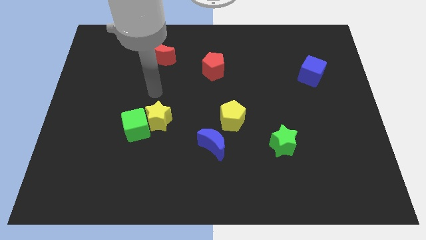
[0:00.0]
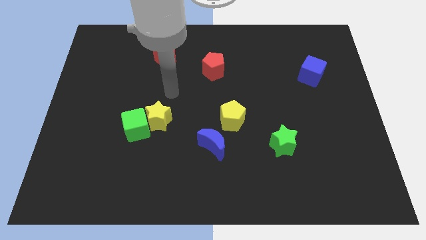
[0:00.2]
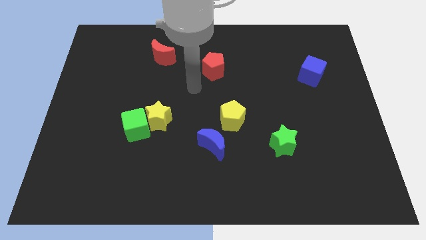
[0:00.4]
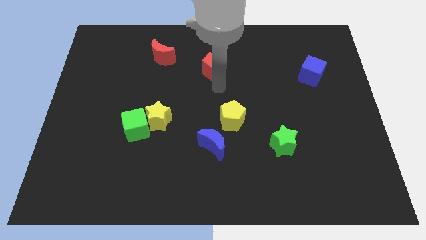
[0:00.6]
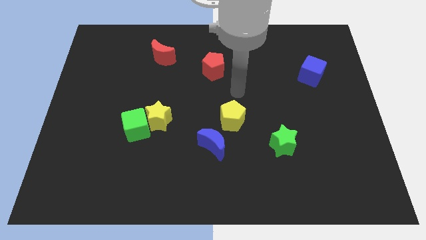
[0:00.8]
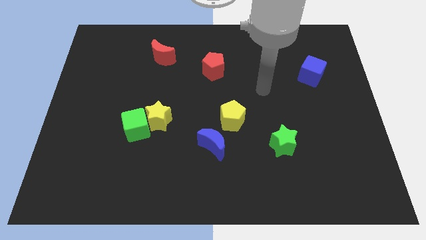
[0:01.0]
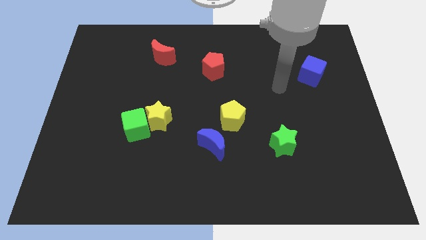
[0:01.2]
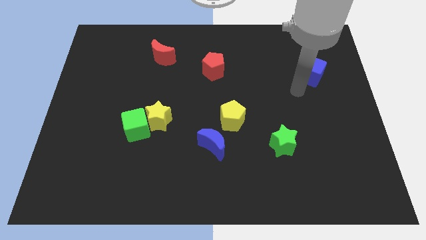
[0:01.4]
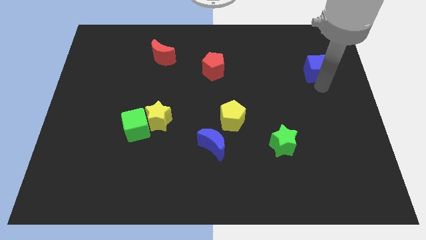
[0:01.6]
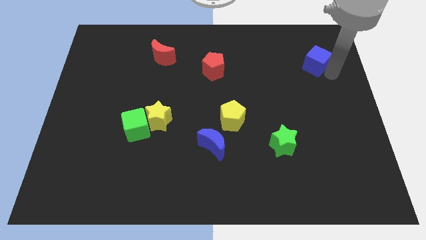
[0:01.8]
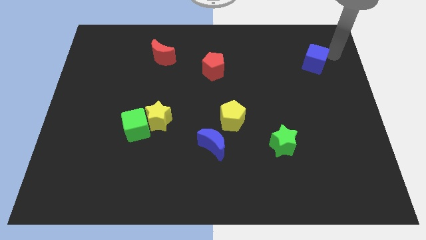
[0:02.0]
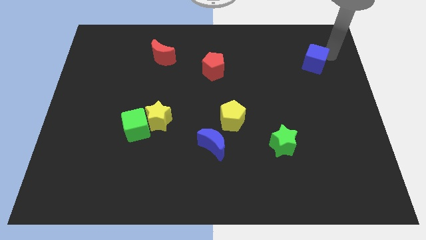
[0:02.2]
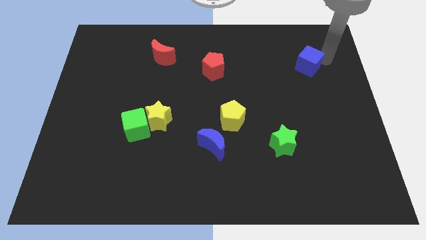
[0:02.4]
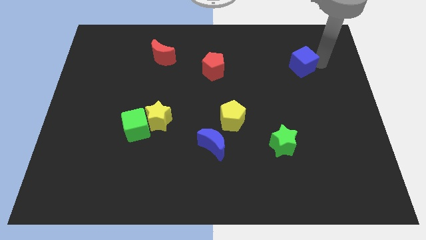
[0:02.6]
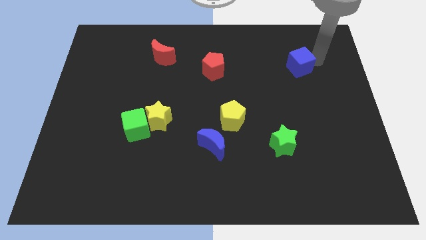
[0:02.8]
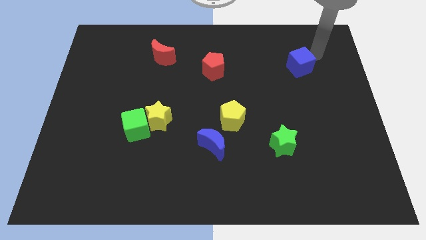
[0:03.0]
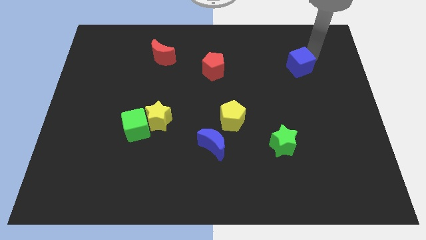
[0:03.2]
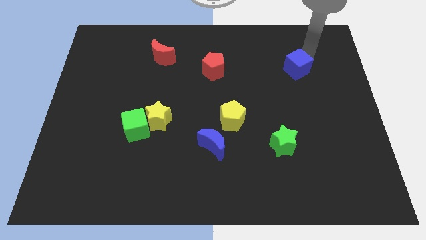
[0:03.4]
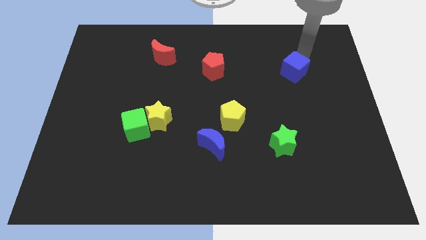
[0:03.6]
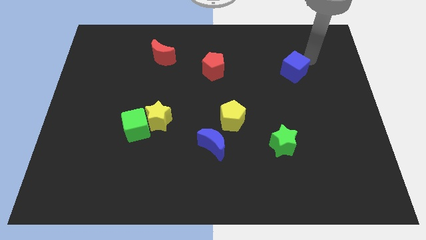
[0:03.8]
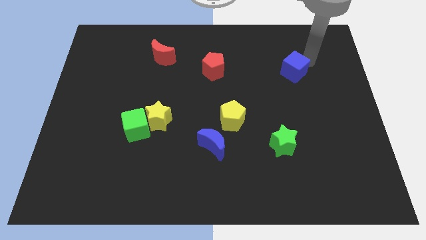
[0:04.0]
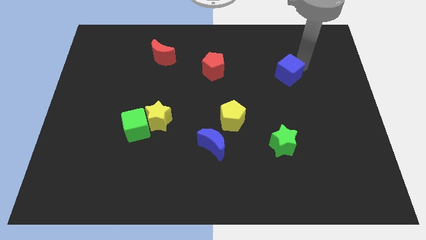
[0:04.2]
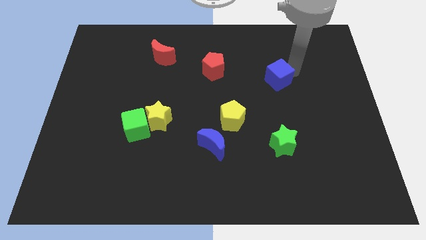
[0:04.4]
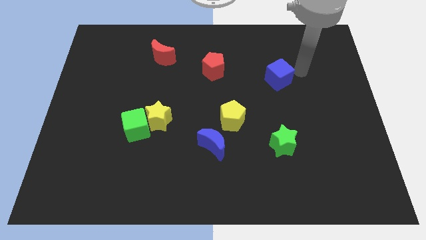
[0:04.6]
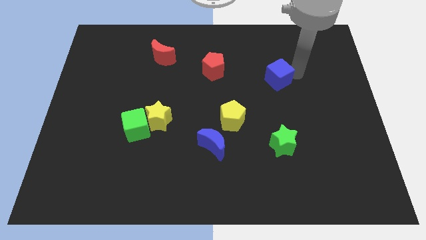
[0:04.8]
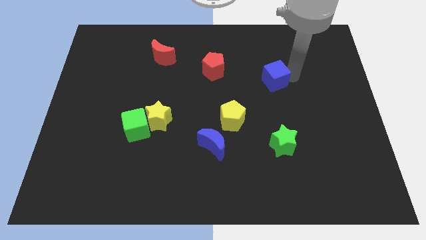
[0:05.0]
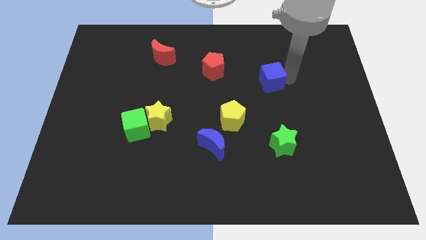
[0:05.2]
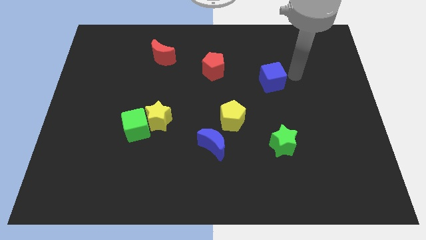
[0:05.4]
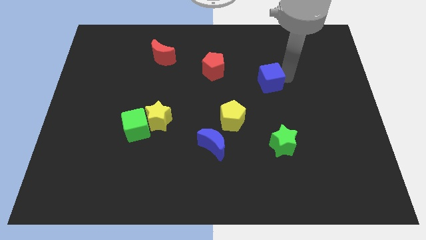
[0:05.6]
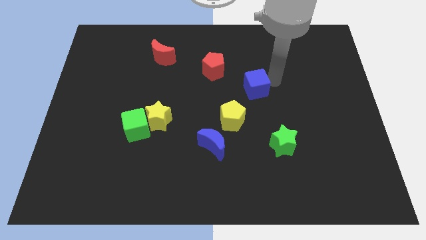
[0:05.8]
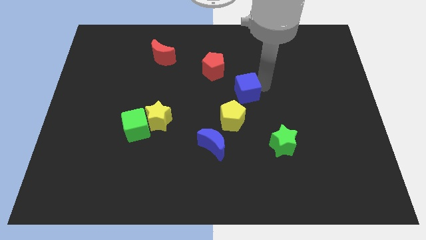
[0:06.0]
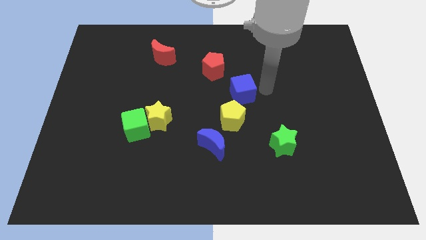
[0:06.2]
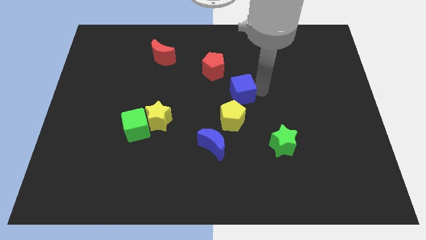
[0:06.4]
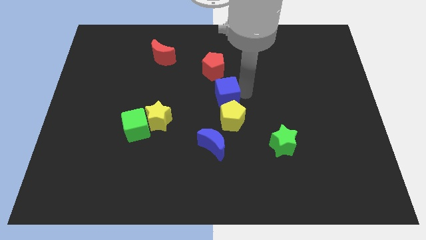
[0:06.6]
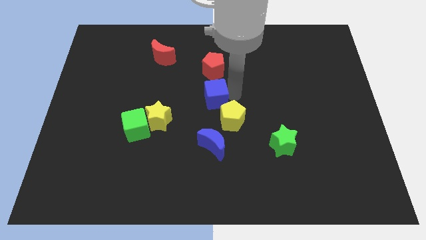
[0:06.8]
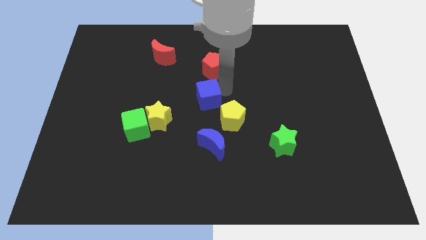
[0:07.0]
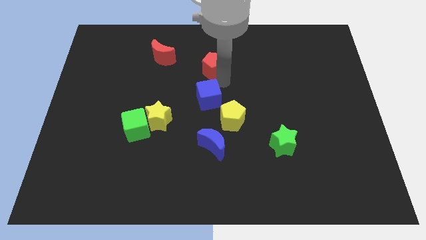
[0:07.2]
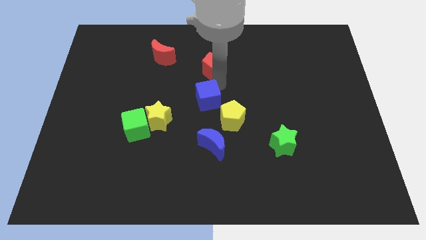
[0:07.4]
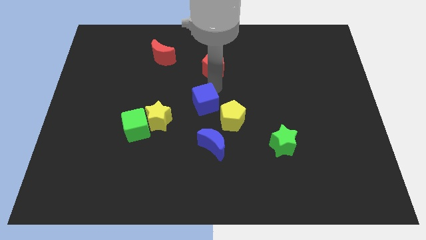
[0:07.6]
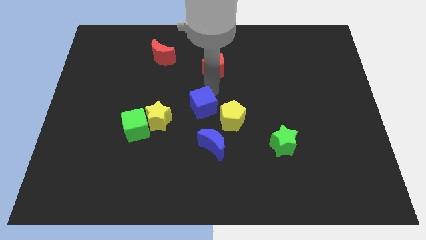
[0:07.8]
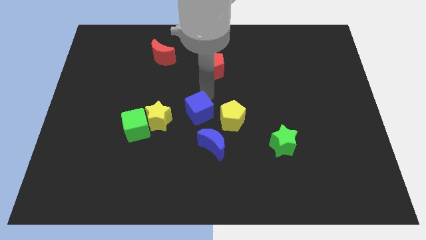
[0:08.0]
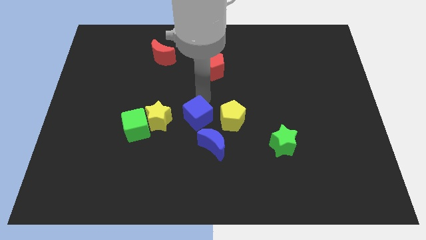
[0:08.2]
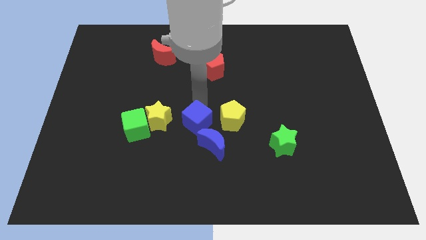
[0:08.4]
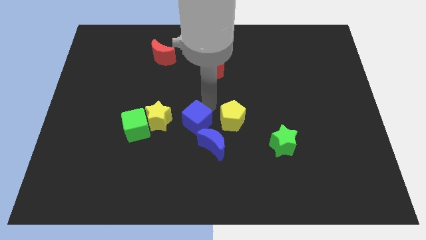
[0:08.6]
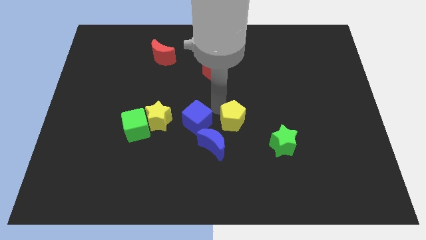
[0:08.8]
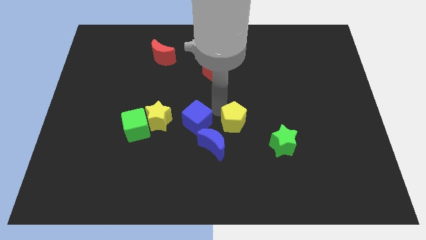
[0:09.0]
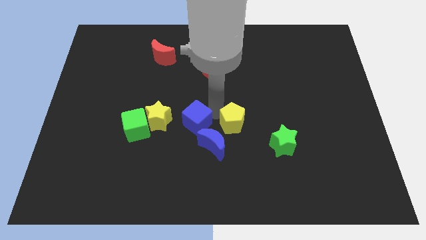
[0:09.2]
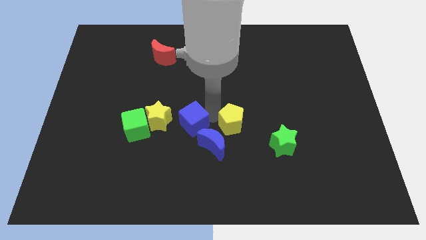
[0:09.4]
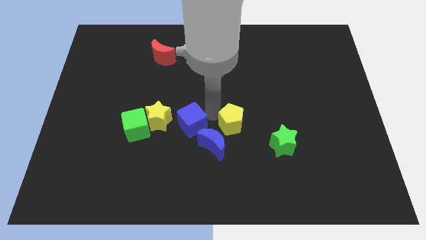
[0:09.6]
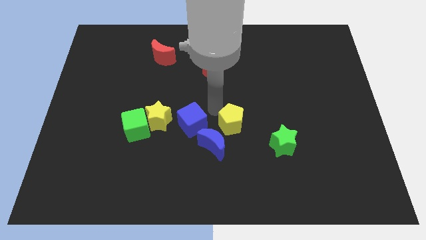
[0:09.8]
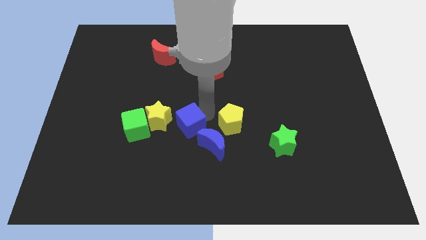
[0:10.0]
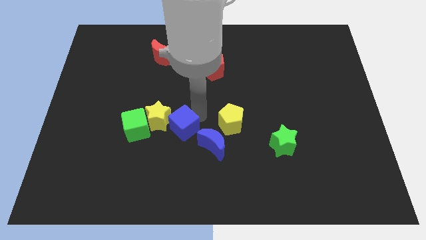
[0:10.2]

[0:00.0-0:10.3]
push the blue cube to the left side of the blue moon

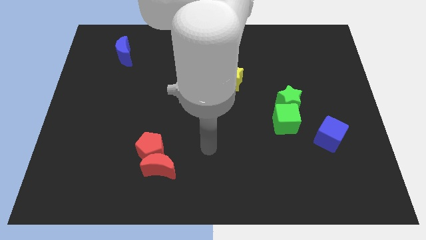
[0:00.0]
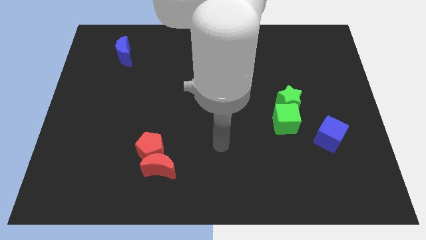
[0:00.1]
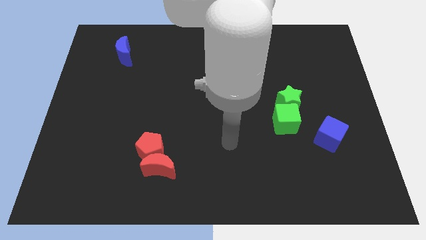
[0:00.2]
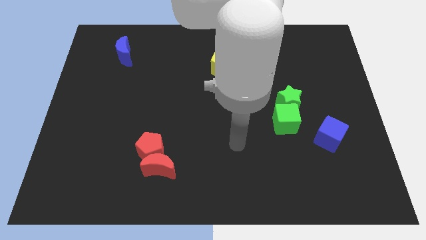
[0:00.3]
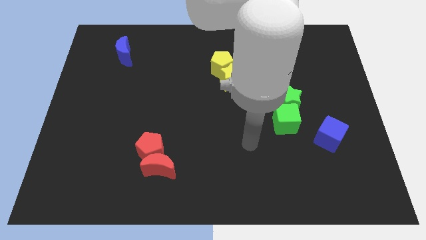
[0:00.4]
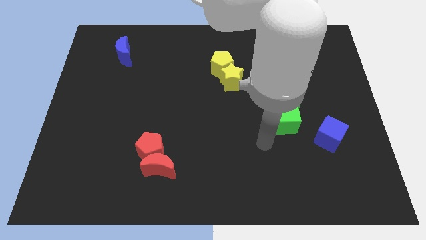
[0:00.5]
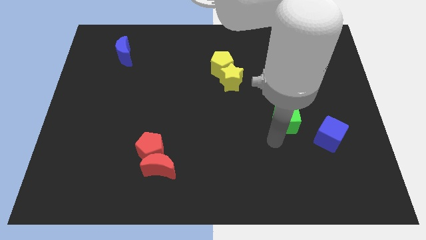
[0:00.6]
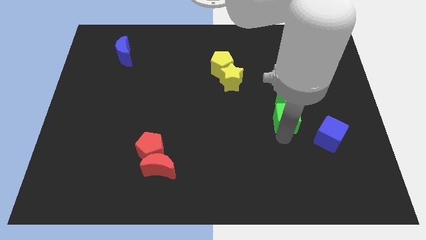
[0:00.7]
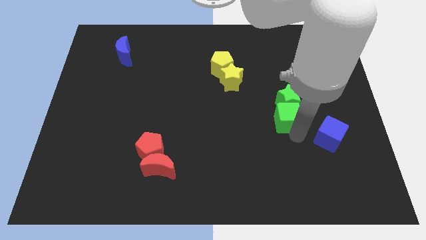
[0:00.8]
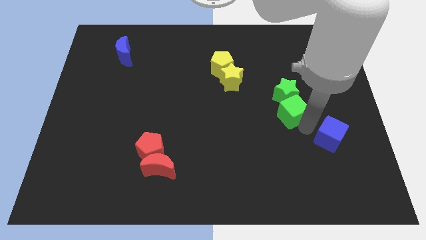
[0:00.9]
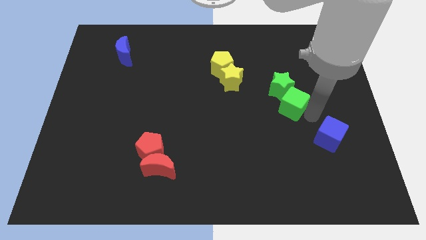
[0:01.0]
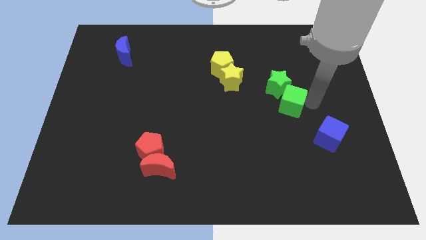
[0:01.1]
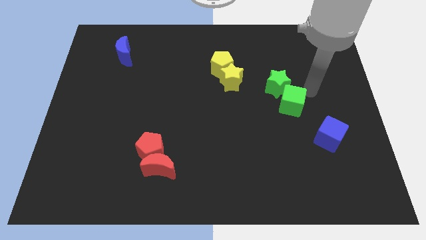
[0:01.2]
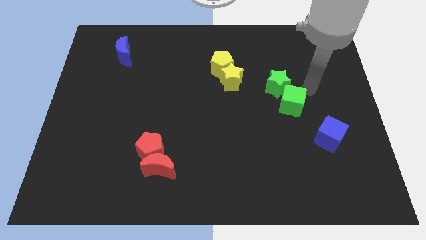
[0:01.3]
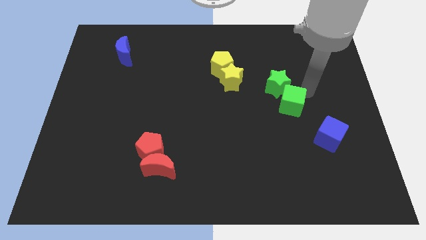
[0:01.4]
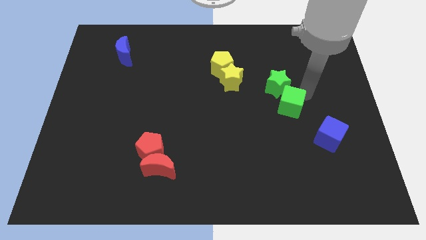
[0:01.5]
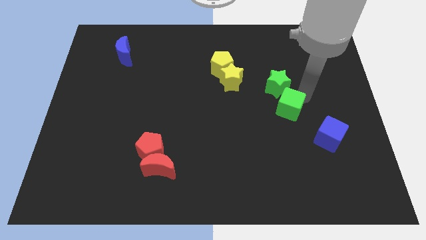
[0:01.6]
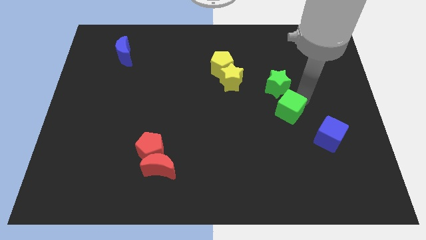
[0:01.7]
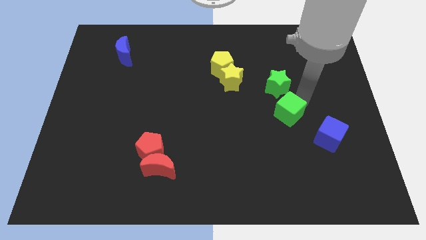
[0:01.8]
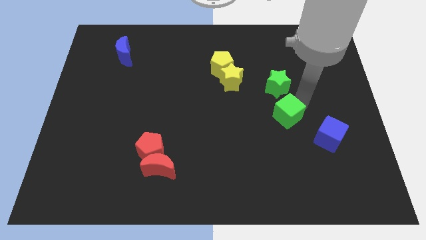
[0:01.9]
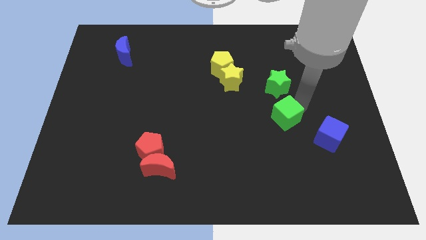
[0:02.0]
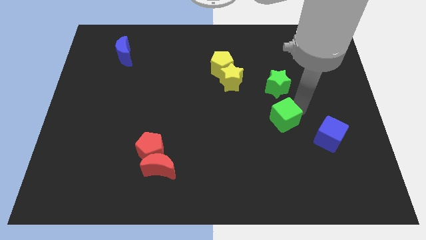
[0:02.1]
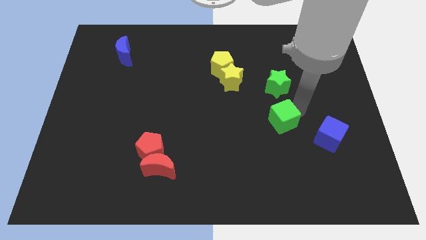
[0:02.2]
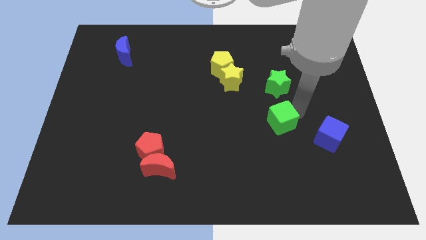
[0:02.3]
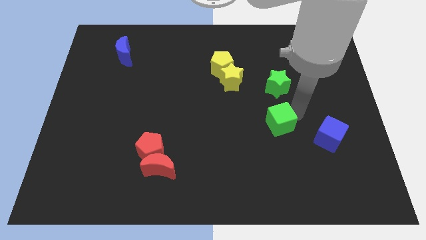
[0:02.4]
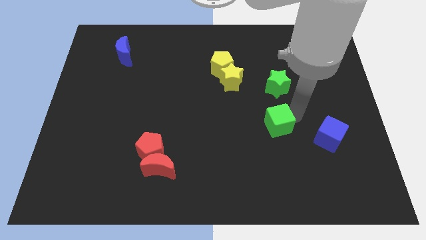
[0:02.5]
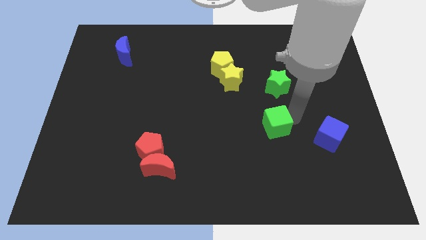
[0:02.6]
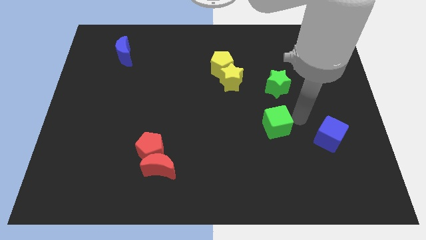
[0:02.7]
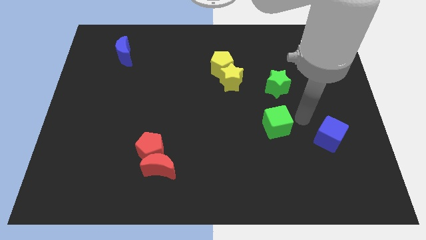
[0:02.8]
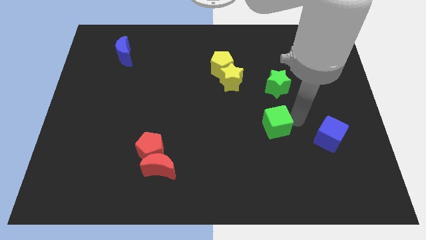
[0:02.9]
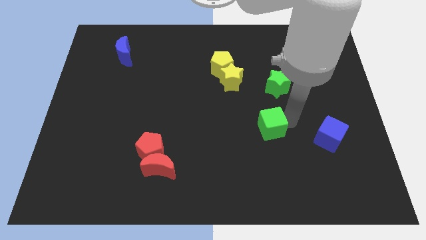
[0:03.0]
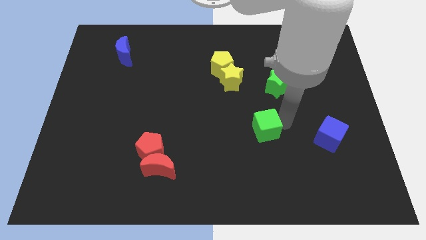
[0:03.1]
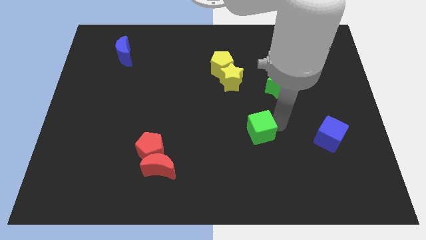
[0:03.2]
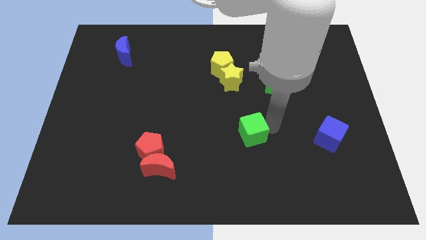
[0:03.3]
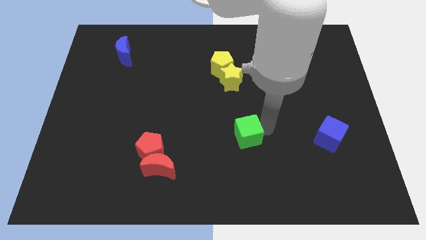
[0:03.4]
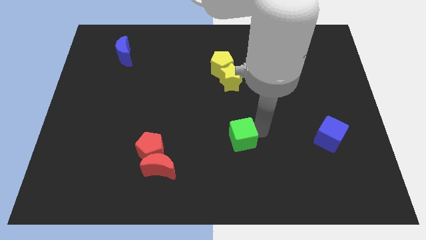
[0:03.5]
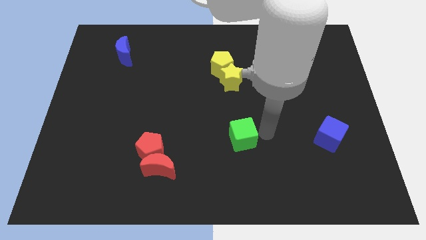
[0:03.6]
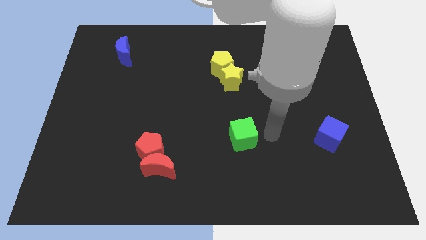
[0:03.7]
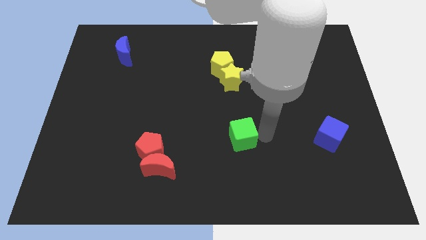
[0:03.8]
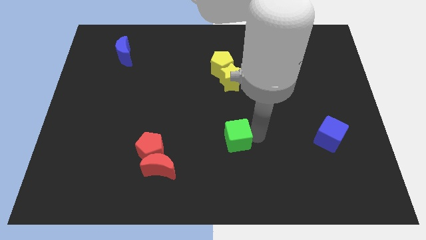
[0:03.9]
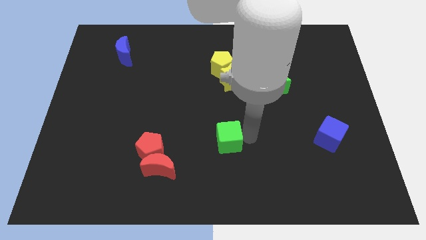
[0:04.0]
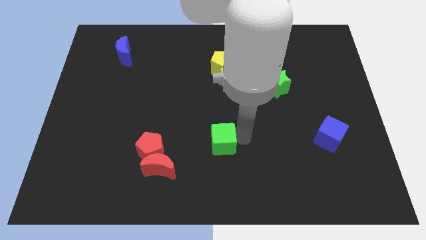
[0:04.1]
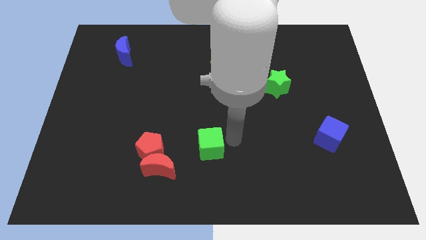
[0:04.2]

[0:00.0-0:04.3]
put the green cube to the top right side of the red moon
